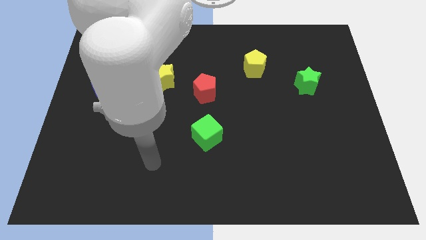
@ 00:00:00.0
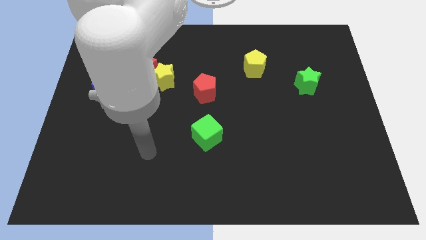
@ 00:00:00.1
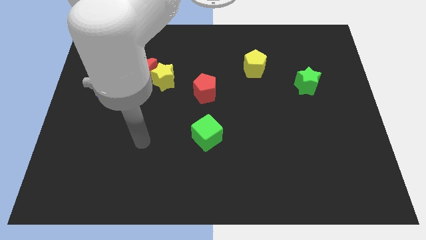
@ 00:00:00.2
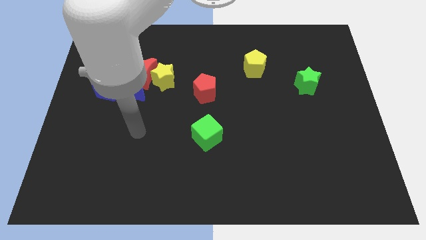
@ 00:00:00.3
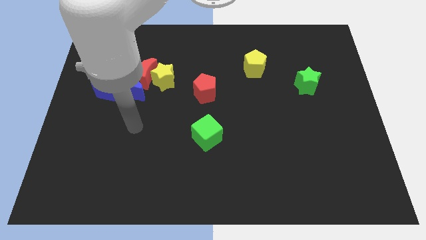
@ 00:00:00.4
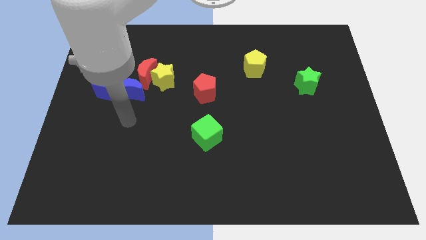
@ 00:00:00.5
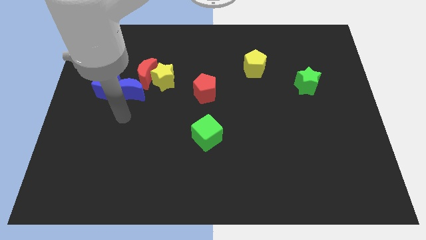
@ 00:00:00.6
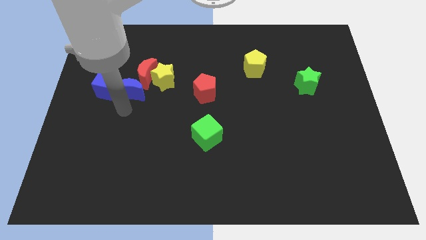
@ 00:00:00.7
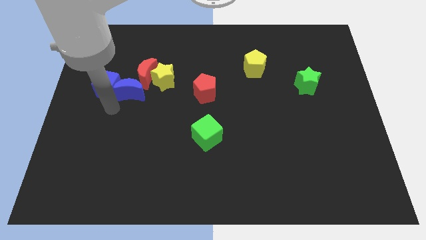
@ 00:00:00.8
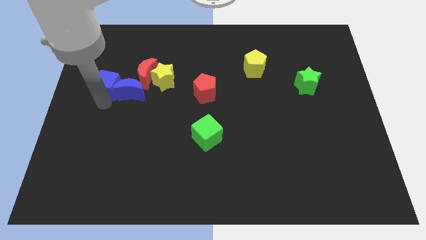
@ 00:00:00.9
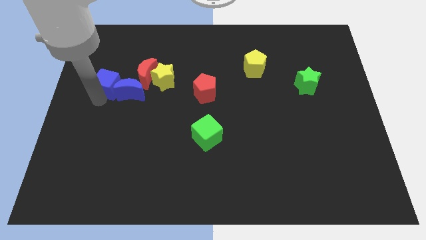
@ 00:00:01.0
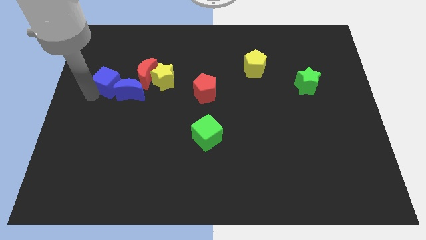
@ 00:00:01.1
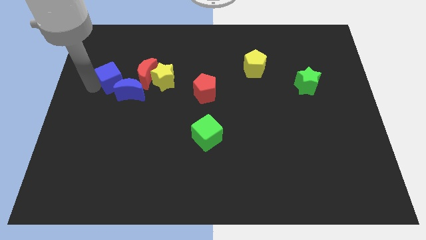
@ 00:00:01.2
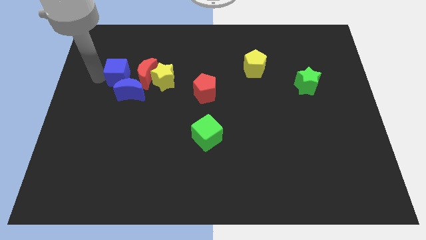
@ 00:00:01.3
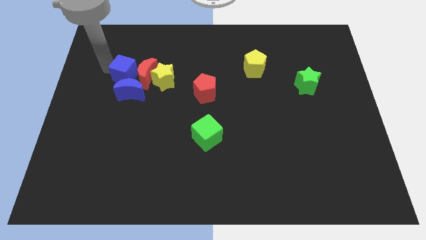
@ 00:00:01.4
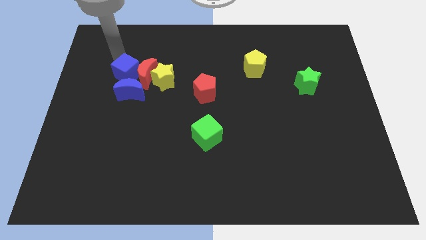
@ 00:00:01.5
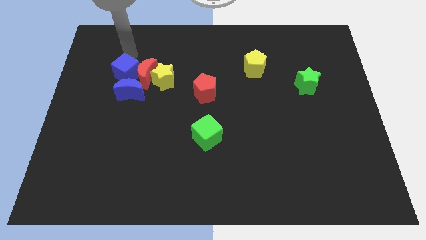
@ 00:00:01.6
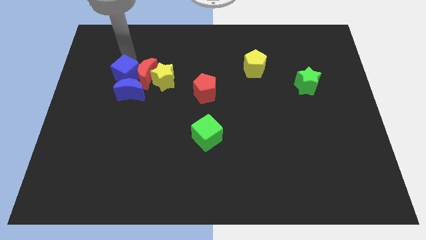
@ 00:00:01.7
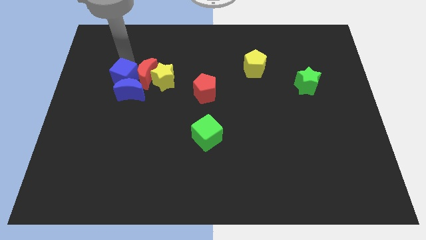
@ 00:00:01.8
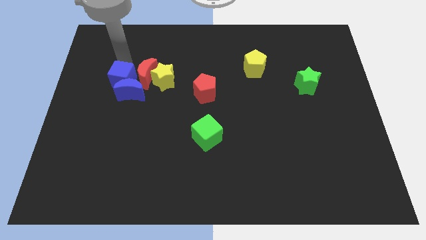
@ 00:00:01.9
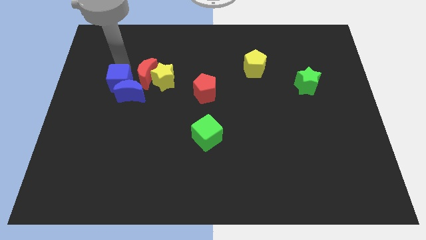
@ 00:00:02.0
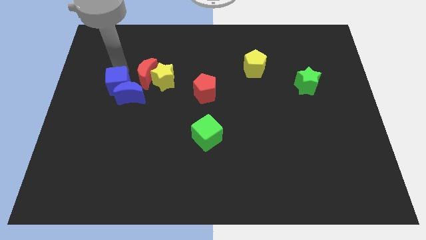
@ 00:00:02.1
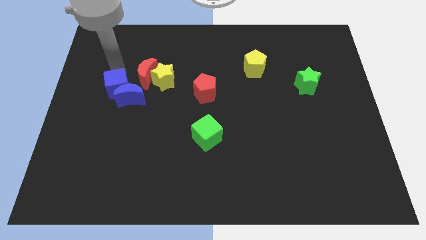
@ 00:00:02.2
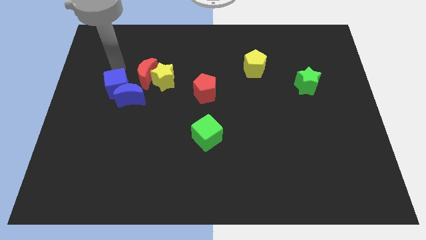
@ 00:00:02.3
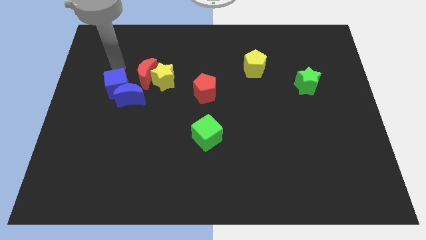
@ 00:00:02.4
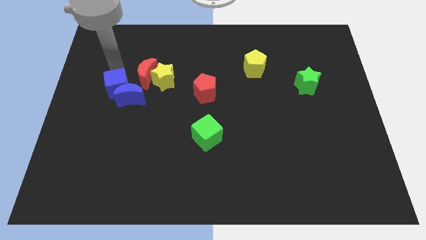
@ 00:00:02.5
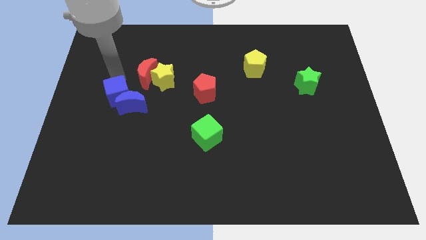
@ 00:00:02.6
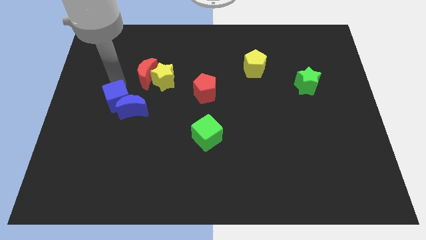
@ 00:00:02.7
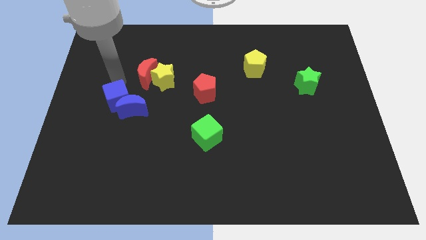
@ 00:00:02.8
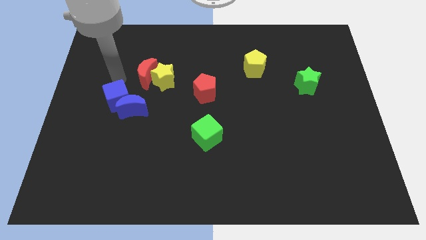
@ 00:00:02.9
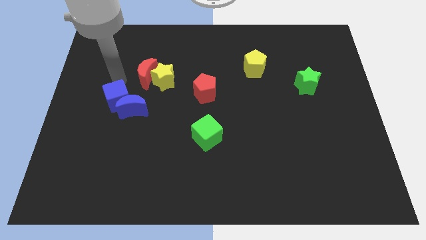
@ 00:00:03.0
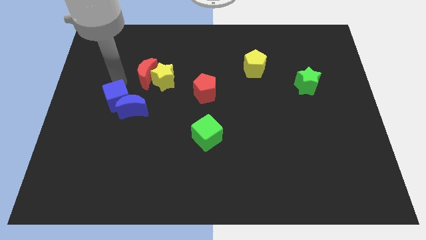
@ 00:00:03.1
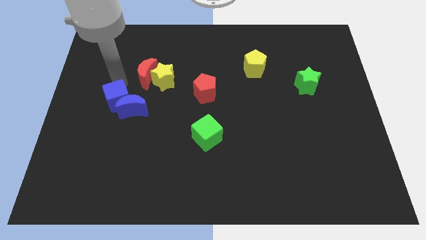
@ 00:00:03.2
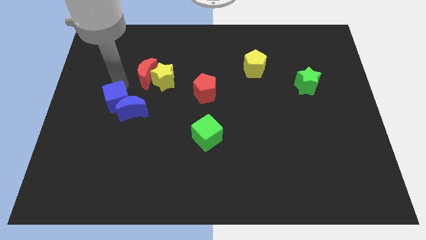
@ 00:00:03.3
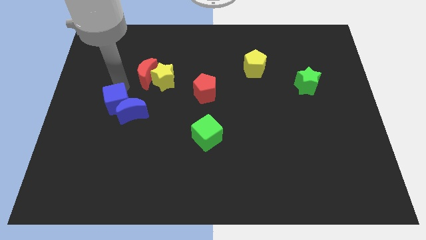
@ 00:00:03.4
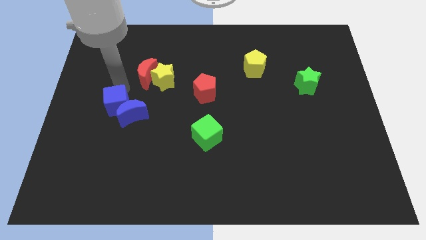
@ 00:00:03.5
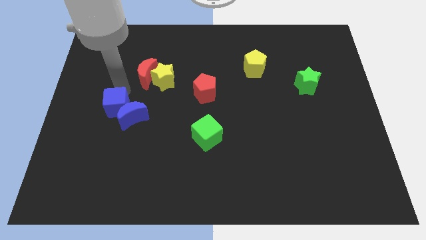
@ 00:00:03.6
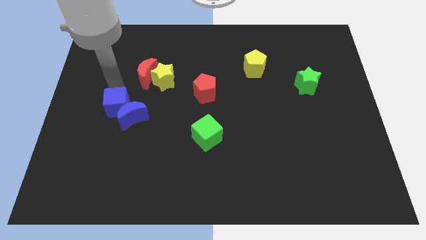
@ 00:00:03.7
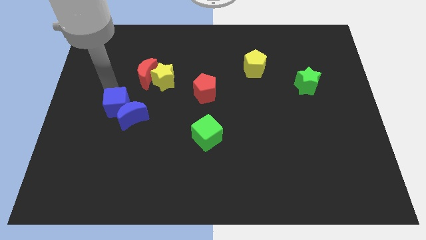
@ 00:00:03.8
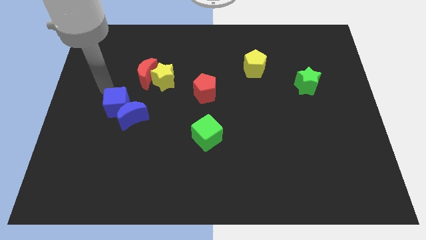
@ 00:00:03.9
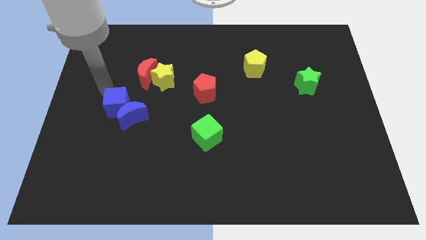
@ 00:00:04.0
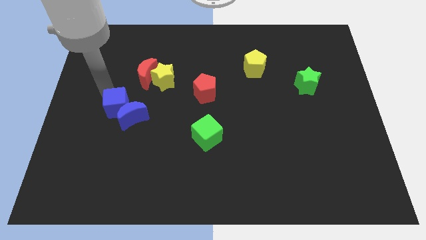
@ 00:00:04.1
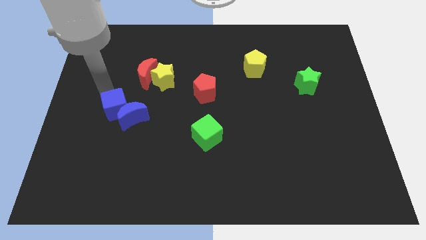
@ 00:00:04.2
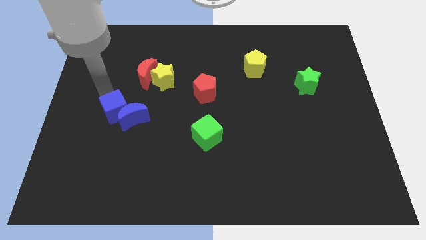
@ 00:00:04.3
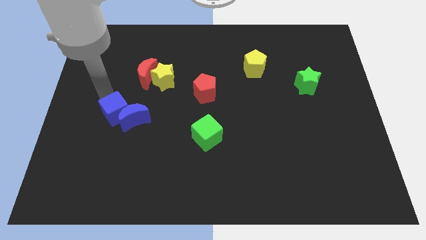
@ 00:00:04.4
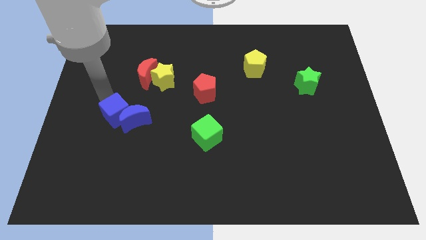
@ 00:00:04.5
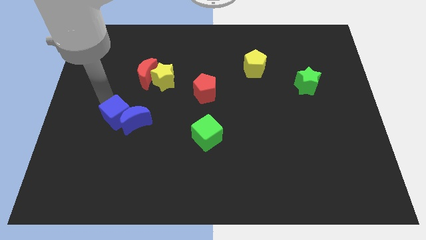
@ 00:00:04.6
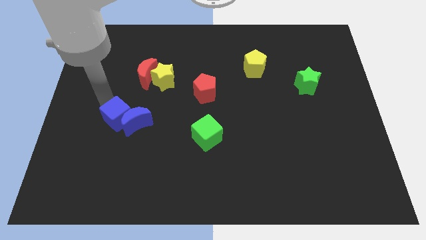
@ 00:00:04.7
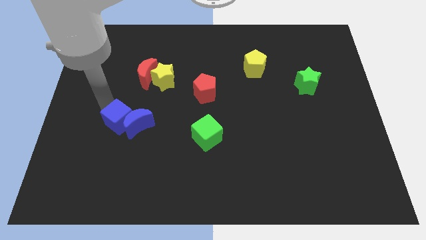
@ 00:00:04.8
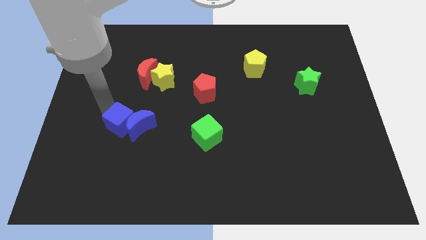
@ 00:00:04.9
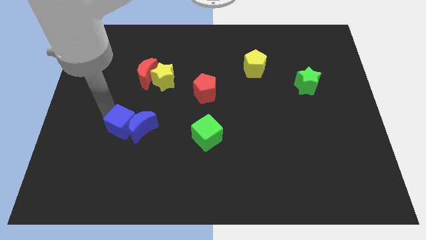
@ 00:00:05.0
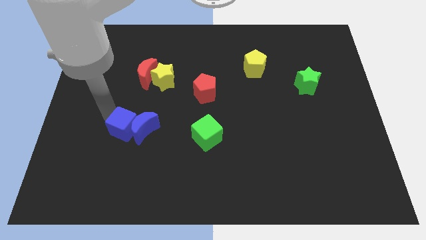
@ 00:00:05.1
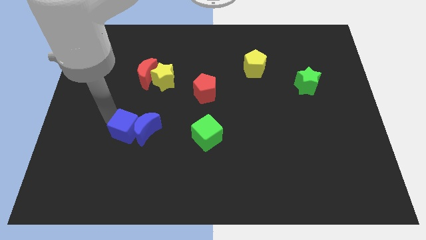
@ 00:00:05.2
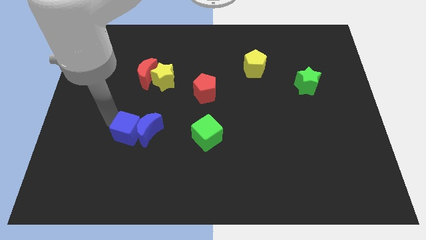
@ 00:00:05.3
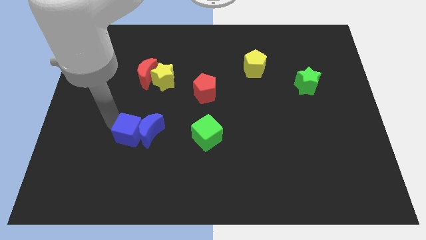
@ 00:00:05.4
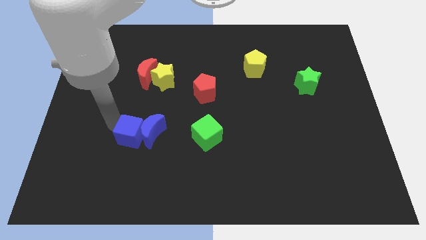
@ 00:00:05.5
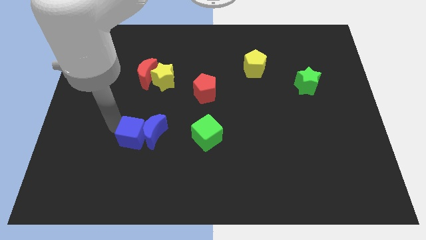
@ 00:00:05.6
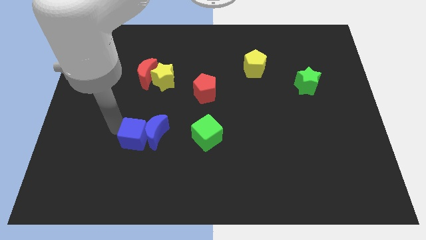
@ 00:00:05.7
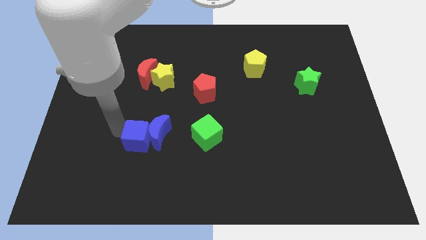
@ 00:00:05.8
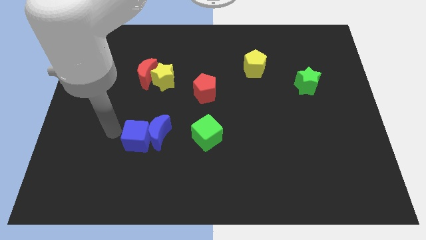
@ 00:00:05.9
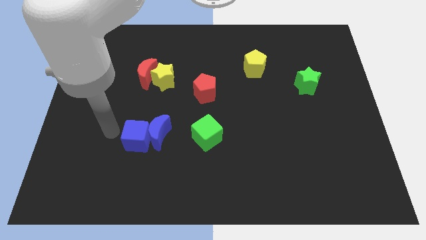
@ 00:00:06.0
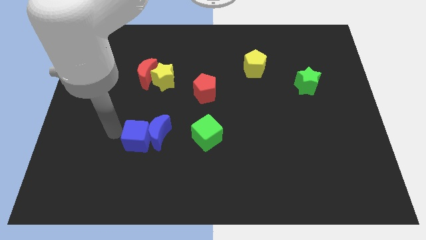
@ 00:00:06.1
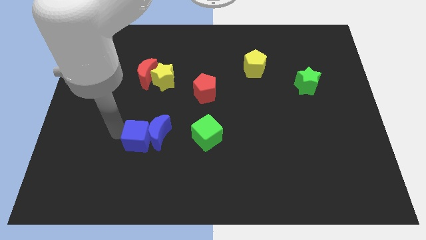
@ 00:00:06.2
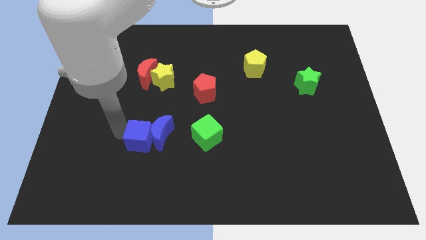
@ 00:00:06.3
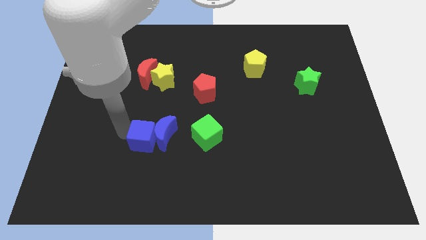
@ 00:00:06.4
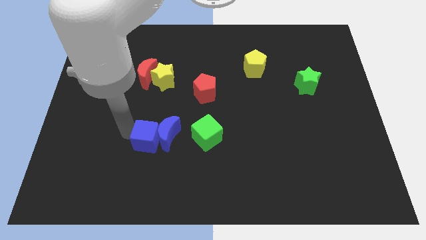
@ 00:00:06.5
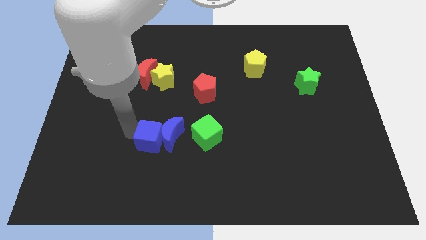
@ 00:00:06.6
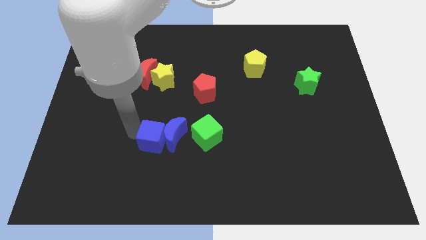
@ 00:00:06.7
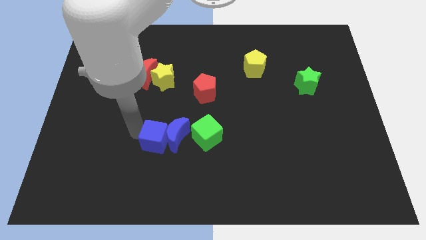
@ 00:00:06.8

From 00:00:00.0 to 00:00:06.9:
move the blue cube down and right diagonally

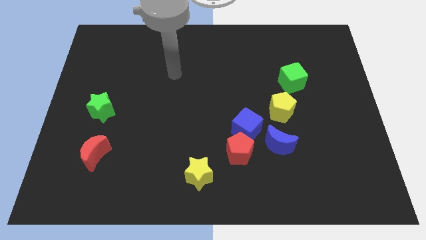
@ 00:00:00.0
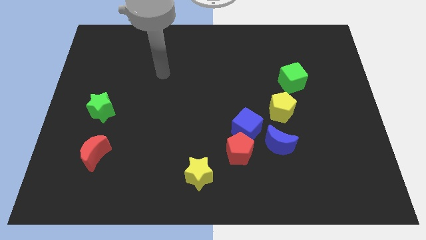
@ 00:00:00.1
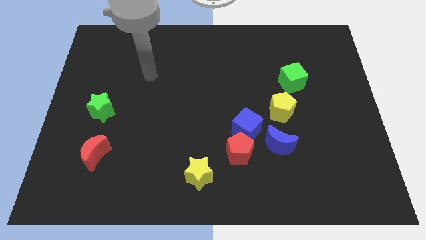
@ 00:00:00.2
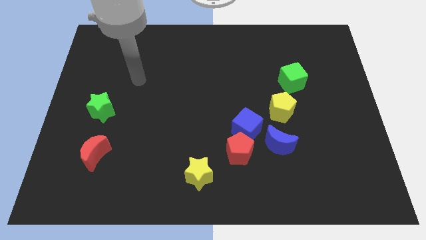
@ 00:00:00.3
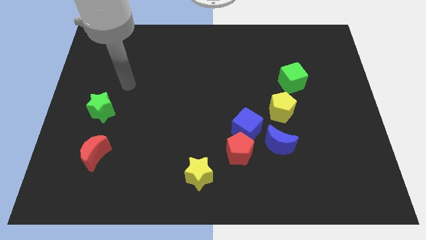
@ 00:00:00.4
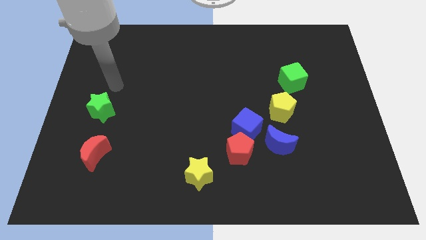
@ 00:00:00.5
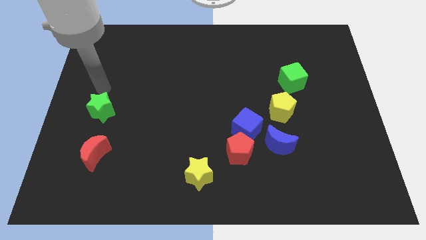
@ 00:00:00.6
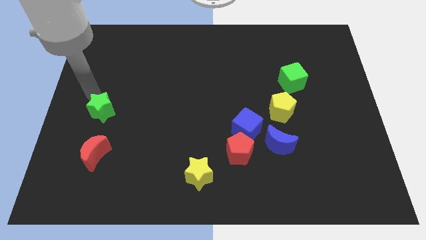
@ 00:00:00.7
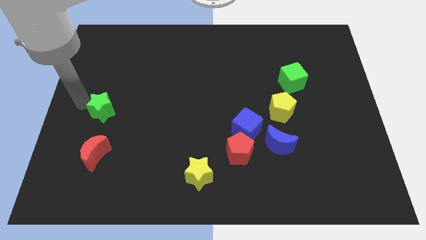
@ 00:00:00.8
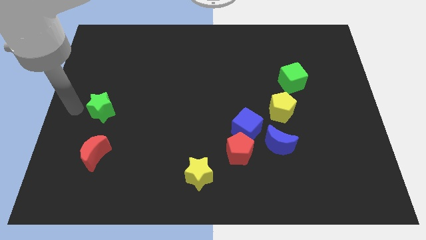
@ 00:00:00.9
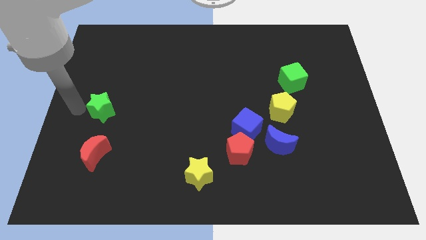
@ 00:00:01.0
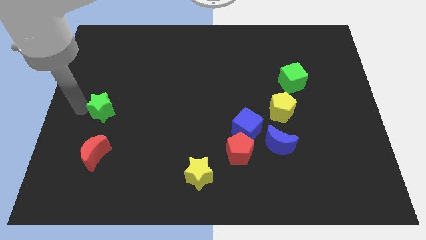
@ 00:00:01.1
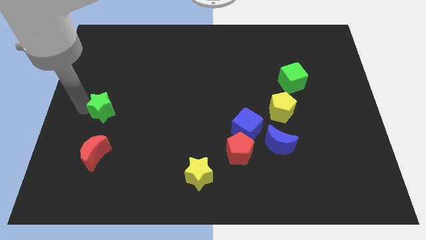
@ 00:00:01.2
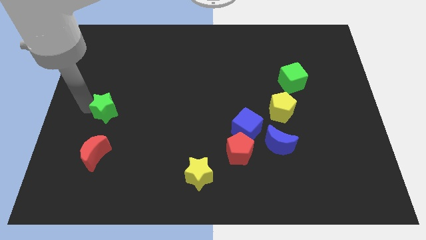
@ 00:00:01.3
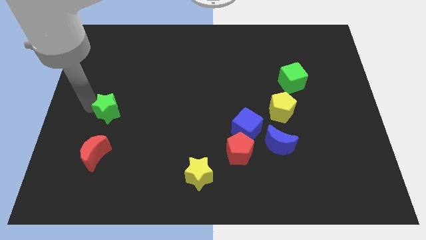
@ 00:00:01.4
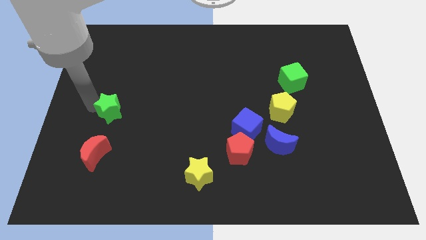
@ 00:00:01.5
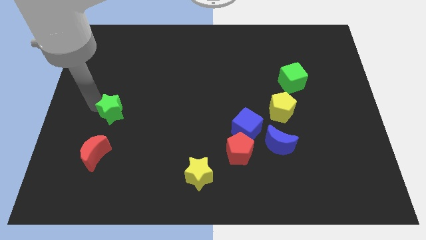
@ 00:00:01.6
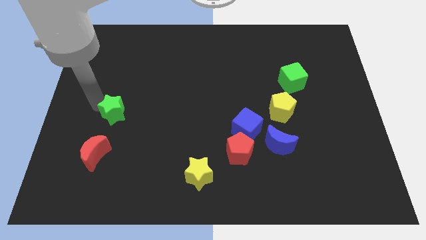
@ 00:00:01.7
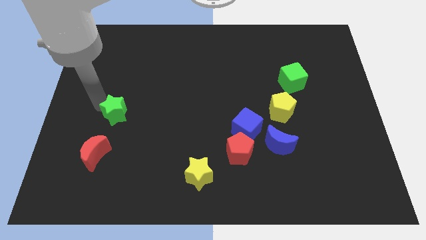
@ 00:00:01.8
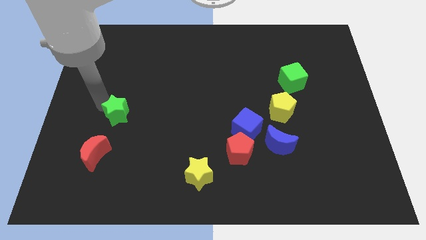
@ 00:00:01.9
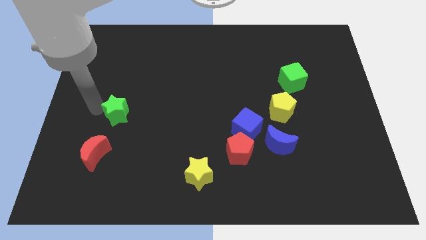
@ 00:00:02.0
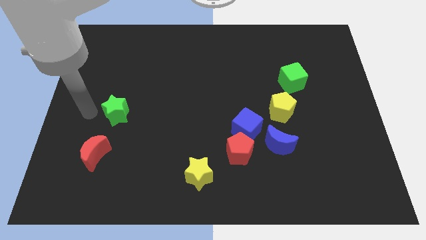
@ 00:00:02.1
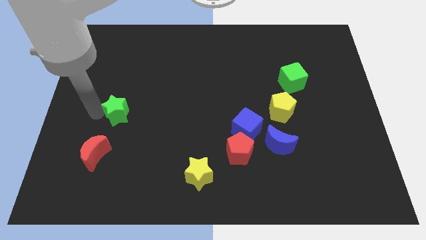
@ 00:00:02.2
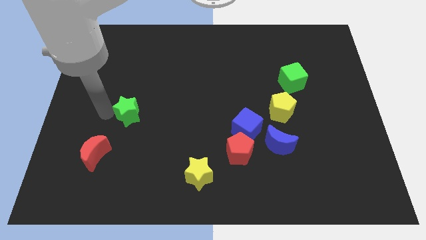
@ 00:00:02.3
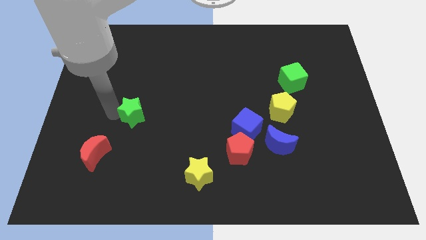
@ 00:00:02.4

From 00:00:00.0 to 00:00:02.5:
push the green star a little bit to the right
